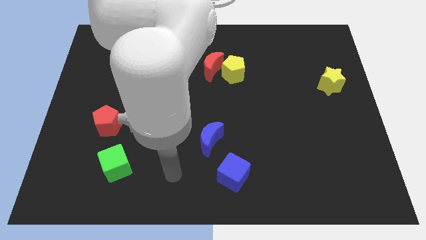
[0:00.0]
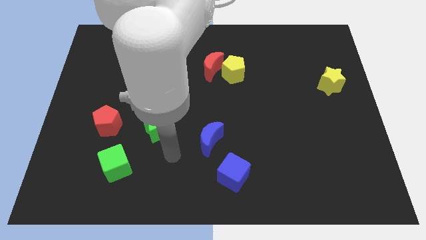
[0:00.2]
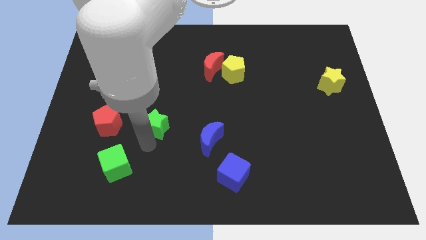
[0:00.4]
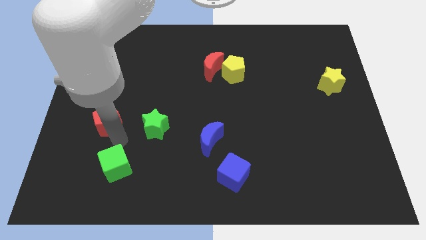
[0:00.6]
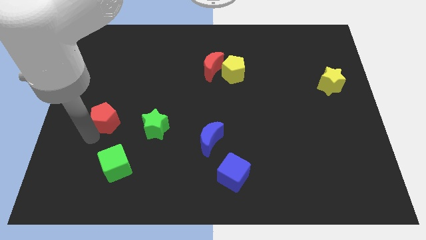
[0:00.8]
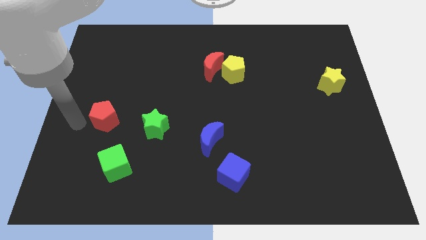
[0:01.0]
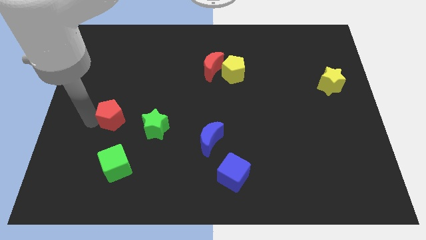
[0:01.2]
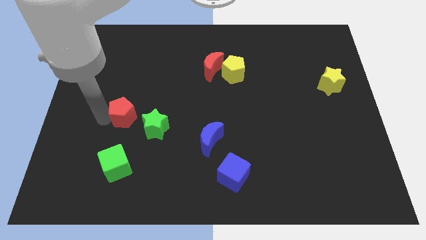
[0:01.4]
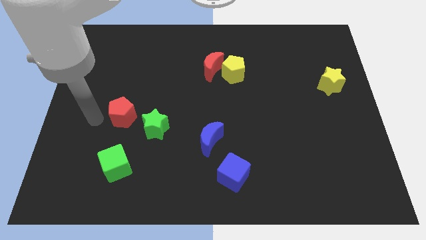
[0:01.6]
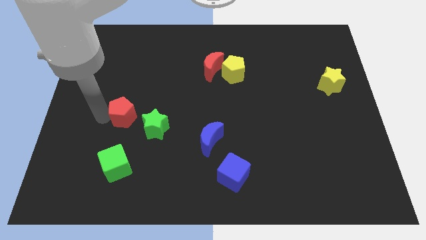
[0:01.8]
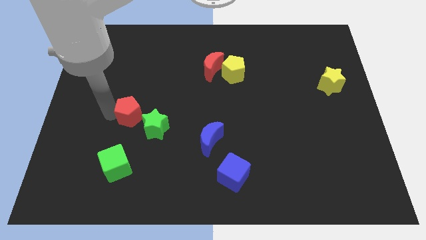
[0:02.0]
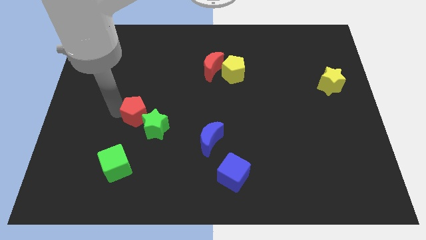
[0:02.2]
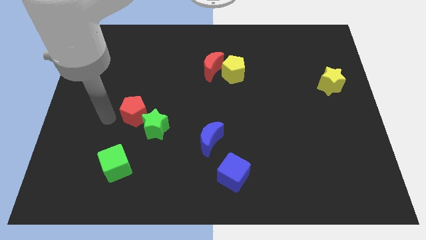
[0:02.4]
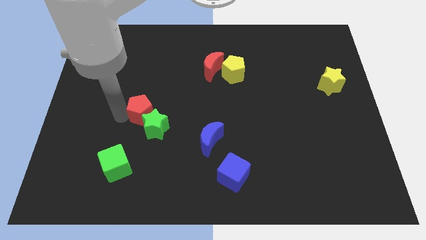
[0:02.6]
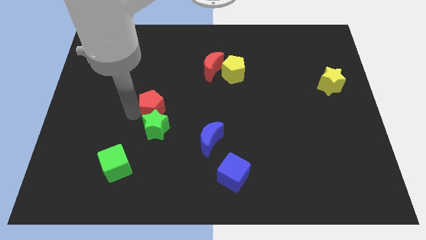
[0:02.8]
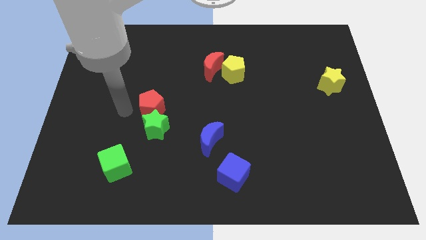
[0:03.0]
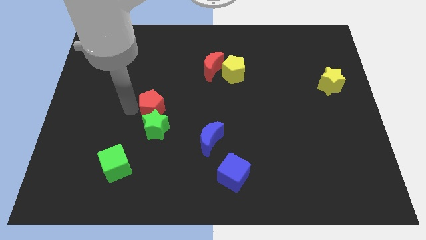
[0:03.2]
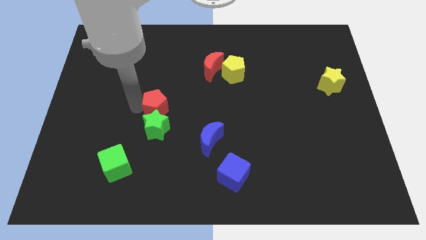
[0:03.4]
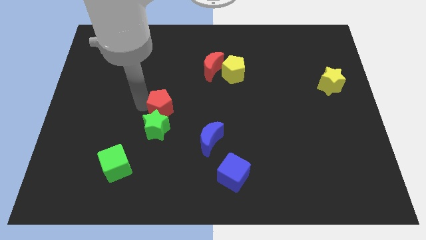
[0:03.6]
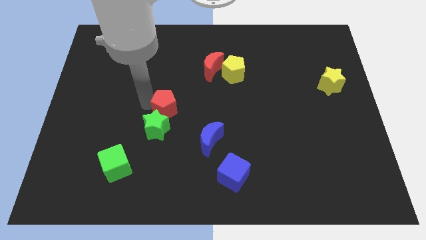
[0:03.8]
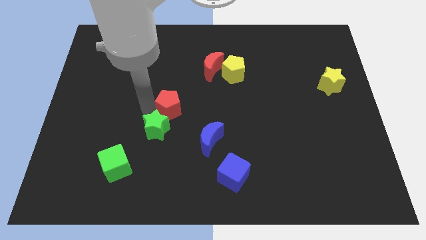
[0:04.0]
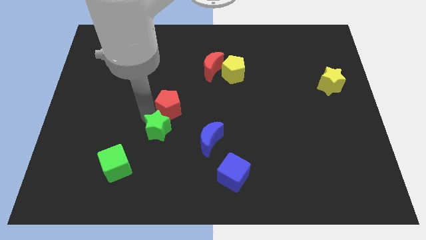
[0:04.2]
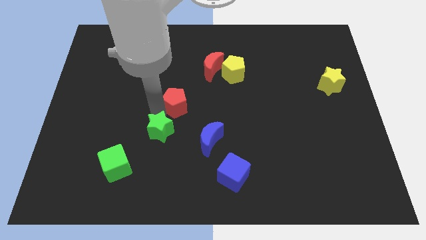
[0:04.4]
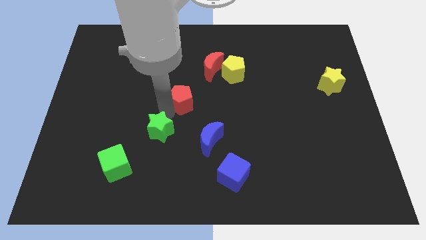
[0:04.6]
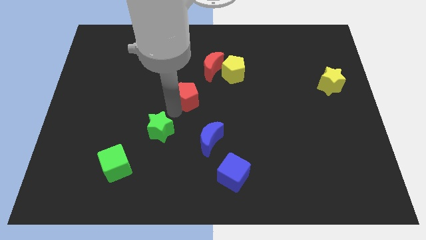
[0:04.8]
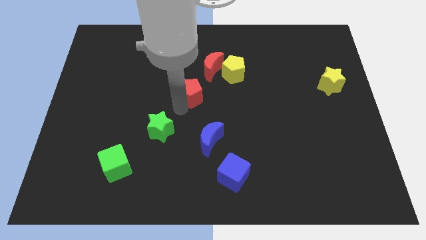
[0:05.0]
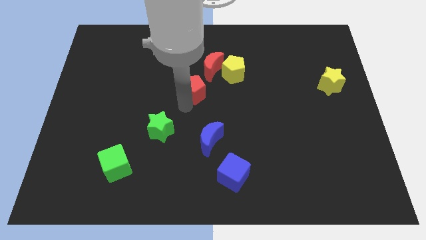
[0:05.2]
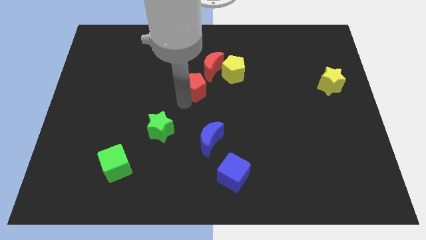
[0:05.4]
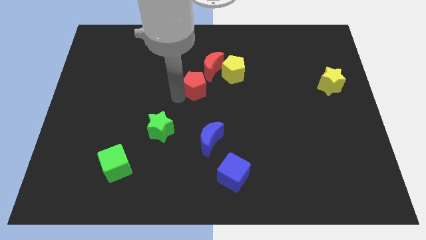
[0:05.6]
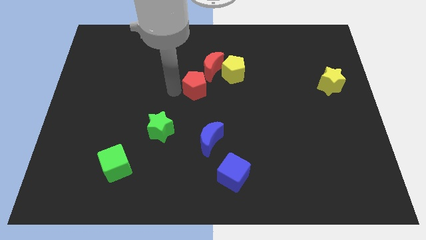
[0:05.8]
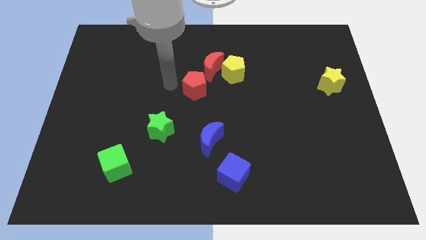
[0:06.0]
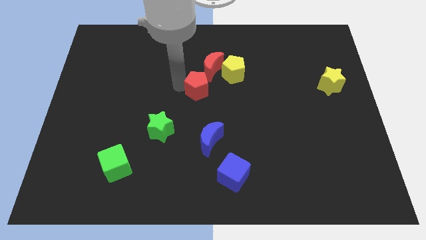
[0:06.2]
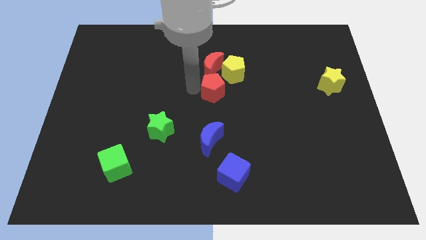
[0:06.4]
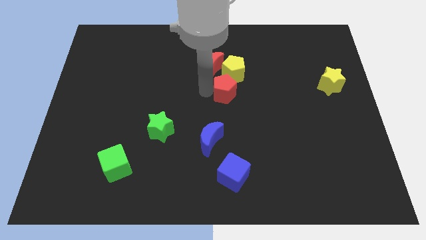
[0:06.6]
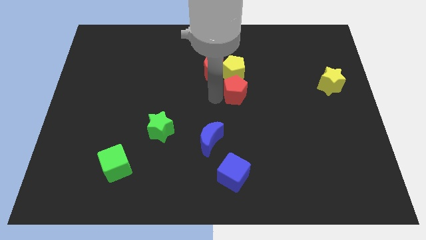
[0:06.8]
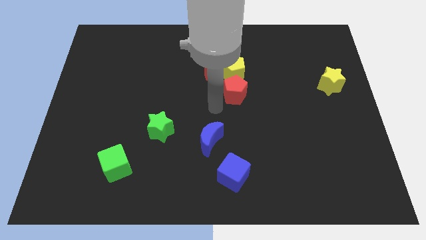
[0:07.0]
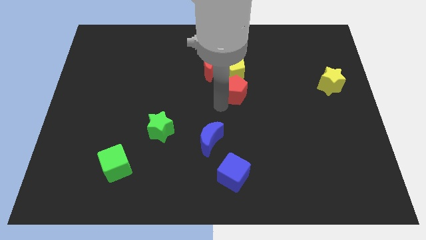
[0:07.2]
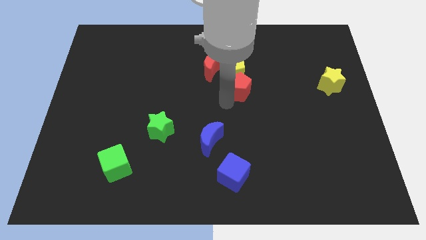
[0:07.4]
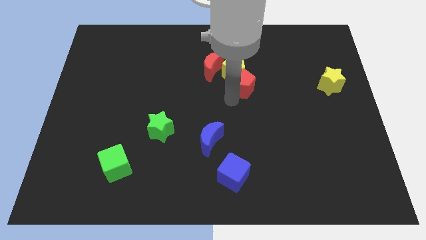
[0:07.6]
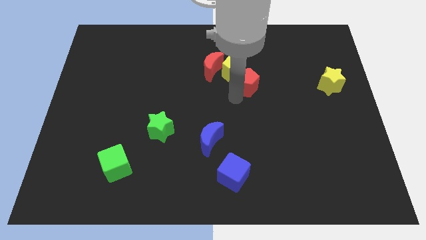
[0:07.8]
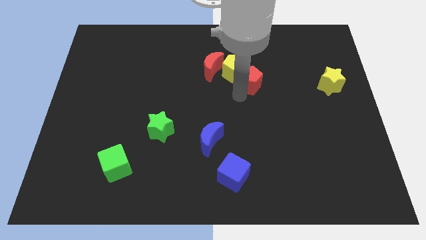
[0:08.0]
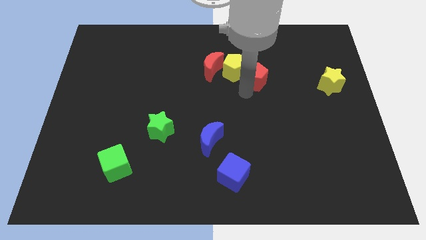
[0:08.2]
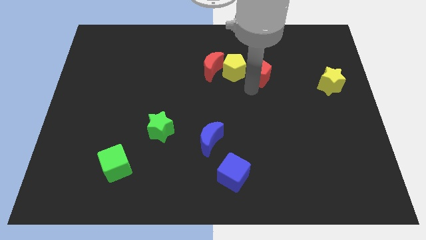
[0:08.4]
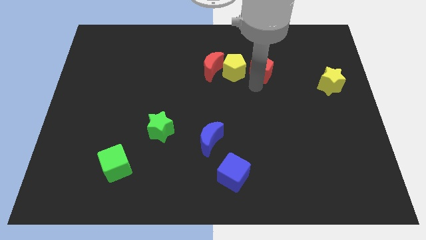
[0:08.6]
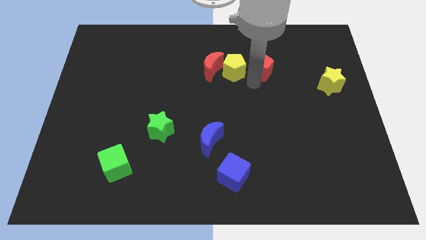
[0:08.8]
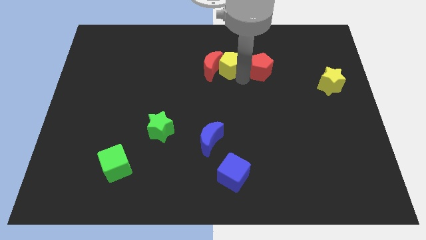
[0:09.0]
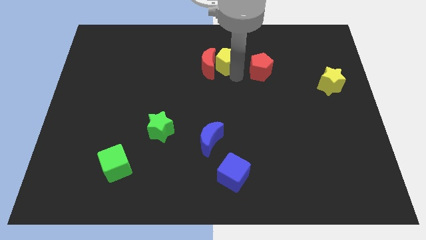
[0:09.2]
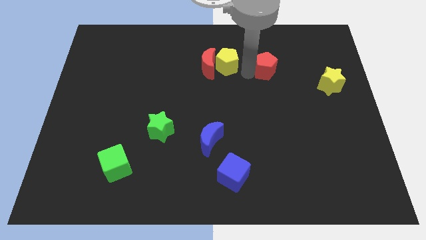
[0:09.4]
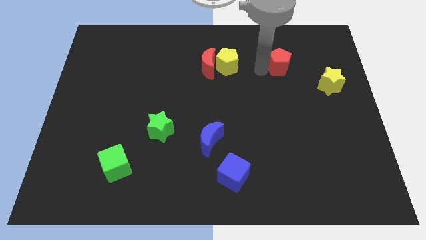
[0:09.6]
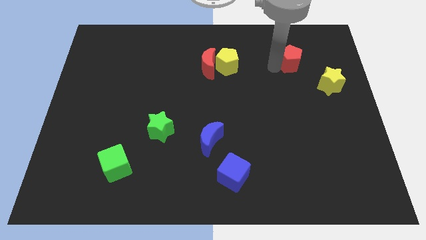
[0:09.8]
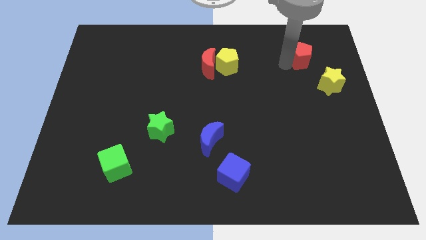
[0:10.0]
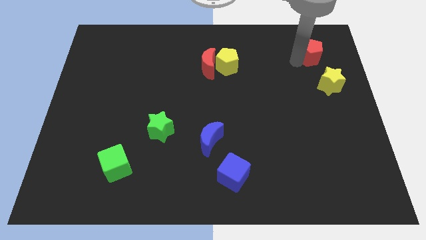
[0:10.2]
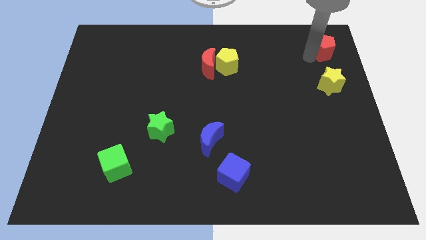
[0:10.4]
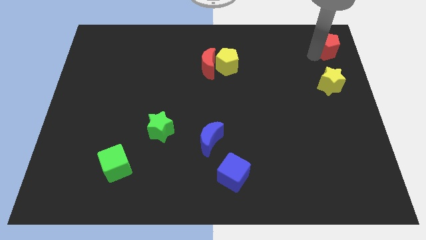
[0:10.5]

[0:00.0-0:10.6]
push the red pentagon to the upper right corner

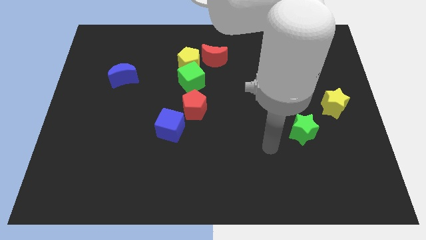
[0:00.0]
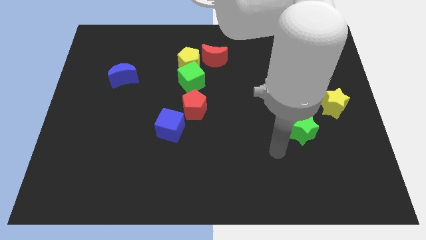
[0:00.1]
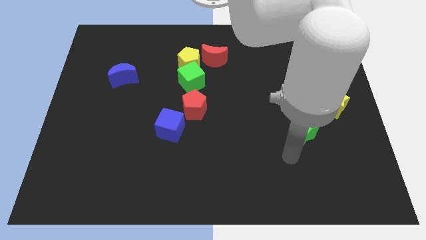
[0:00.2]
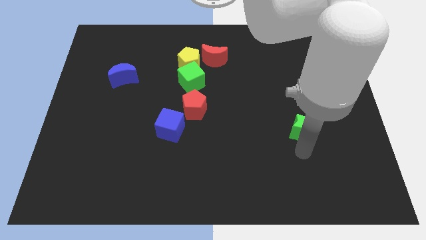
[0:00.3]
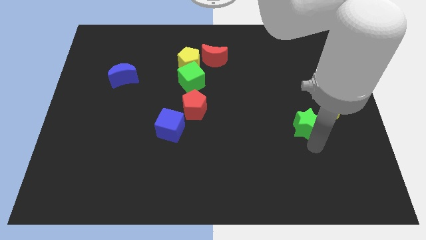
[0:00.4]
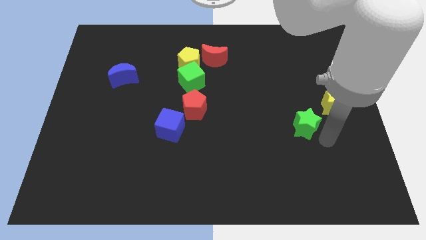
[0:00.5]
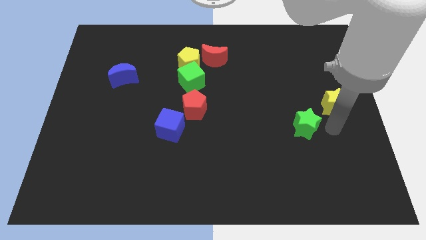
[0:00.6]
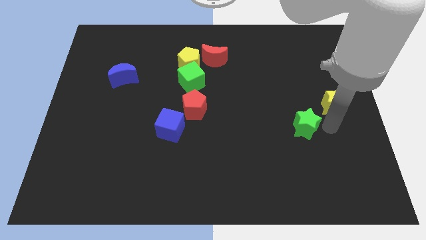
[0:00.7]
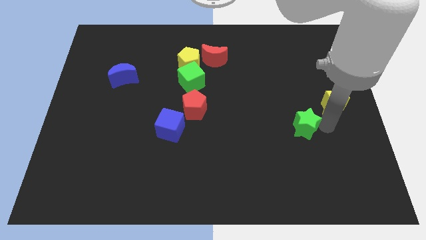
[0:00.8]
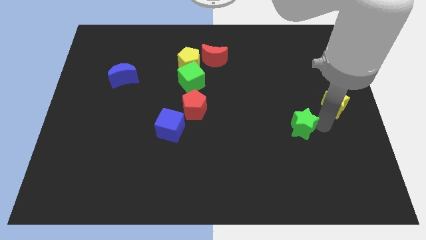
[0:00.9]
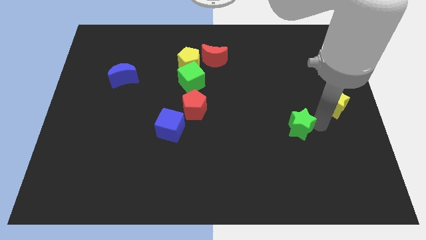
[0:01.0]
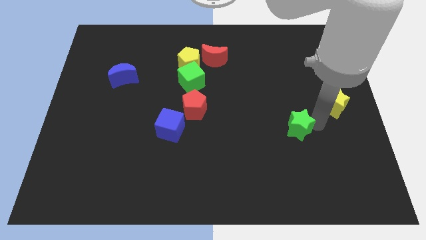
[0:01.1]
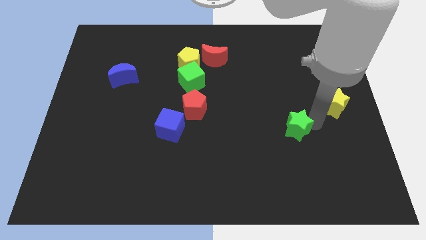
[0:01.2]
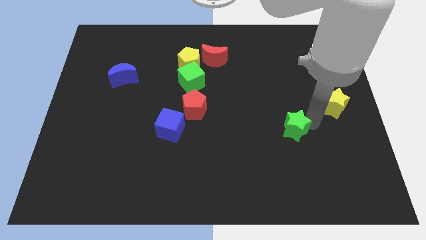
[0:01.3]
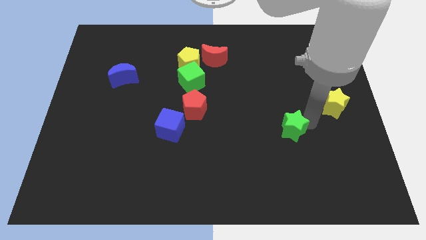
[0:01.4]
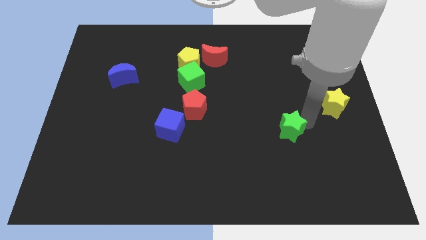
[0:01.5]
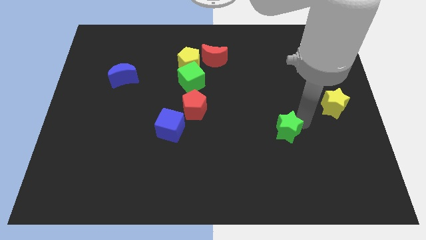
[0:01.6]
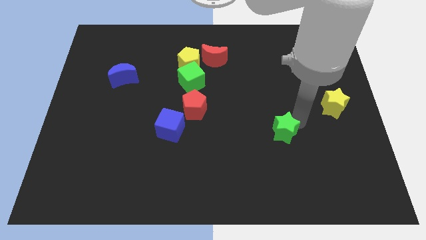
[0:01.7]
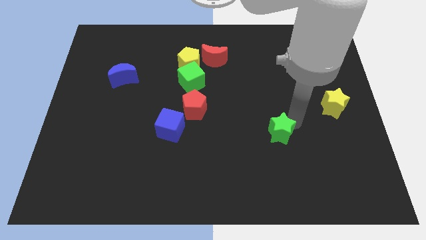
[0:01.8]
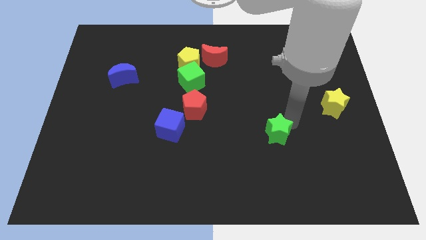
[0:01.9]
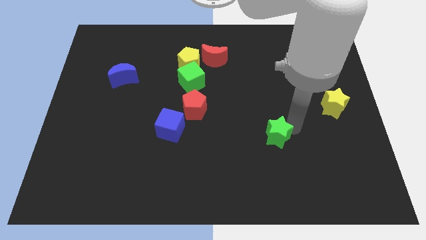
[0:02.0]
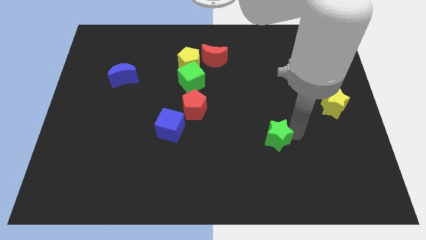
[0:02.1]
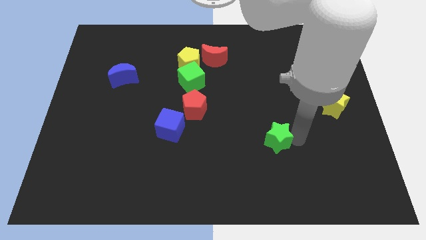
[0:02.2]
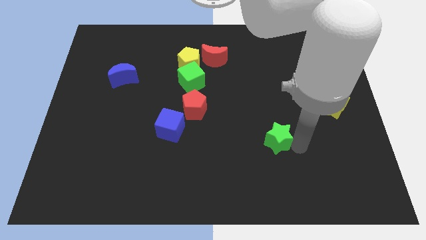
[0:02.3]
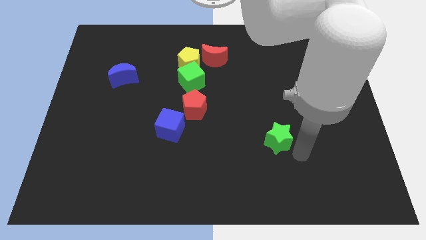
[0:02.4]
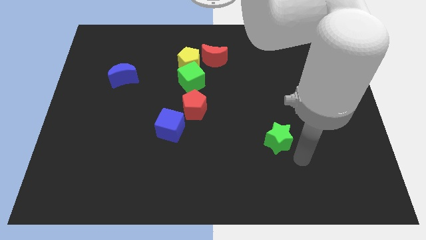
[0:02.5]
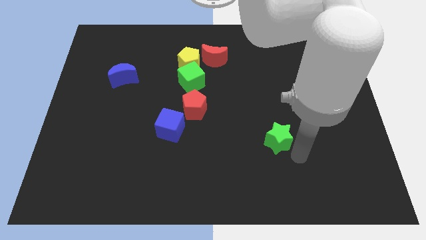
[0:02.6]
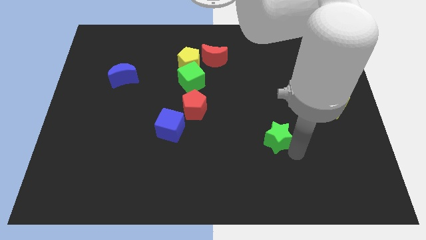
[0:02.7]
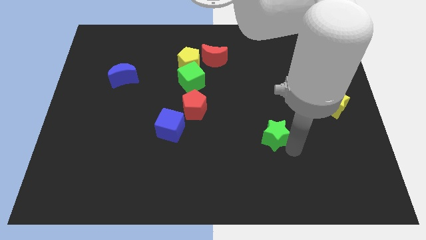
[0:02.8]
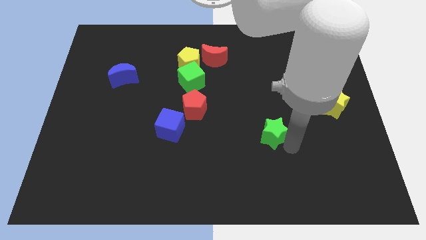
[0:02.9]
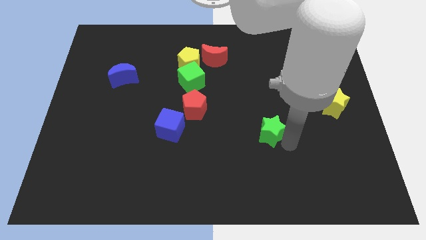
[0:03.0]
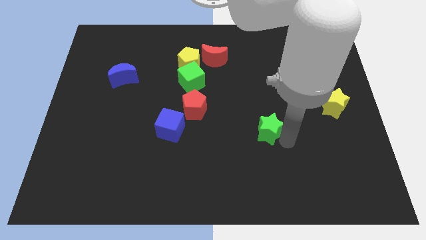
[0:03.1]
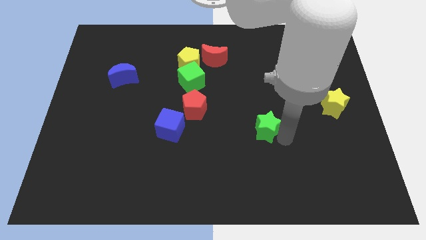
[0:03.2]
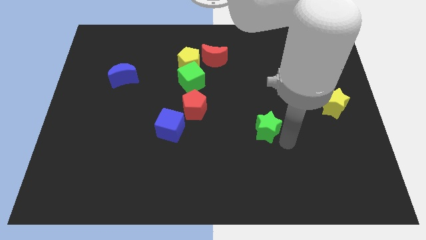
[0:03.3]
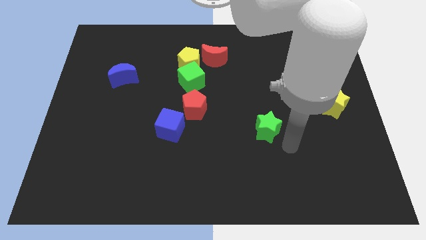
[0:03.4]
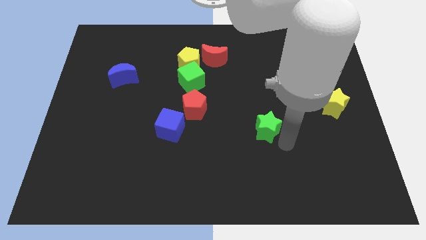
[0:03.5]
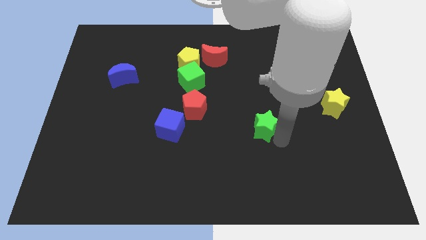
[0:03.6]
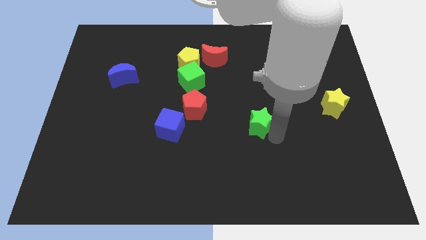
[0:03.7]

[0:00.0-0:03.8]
slide the green star to the center of the board
